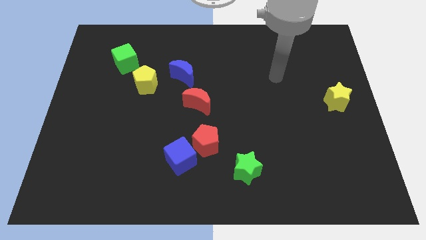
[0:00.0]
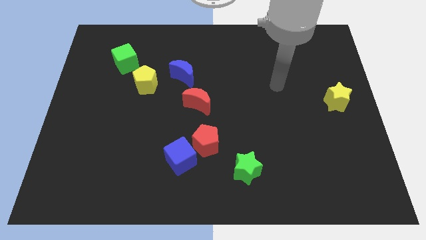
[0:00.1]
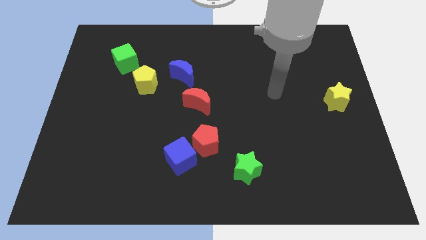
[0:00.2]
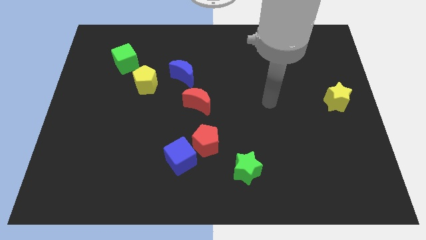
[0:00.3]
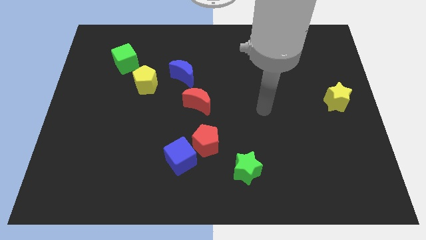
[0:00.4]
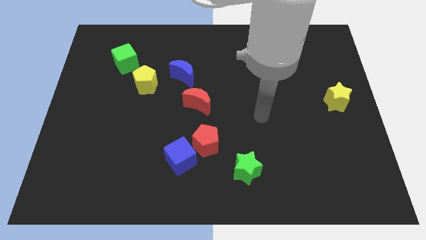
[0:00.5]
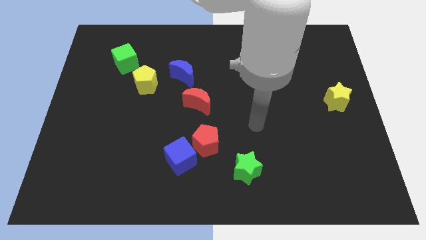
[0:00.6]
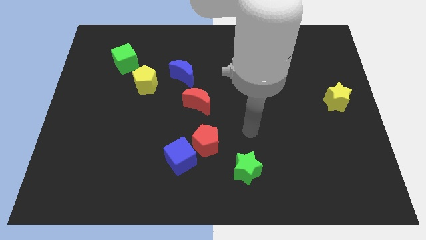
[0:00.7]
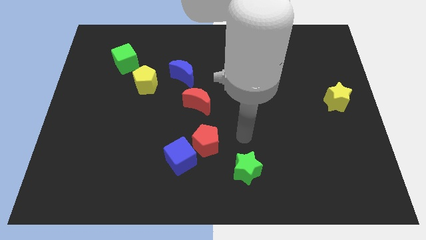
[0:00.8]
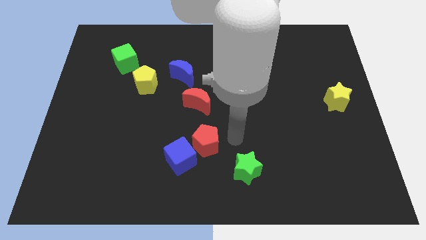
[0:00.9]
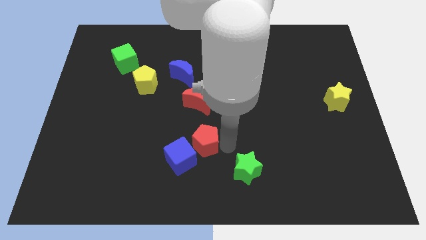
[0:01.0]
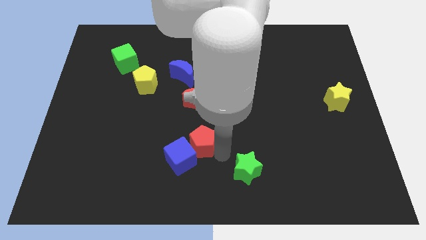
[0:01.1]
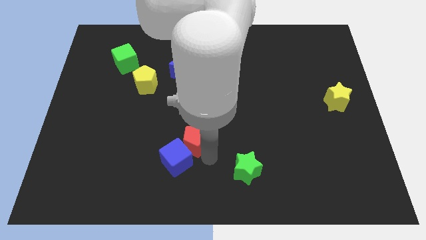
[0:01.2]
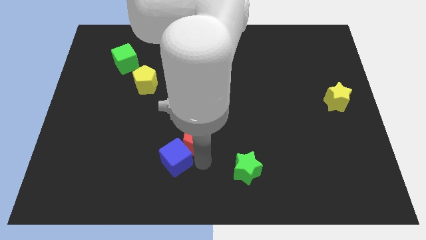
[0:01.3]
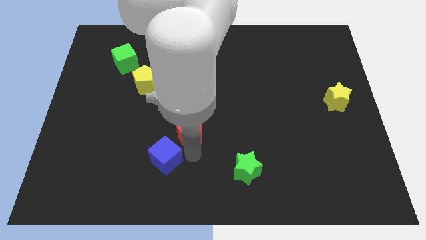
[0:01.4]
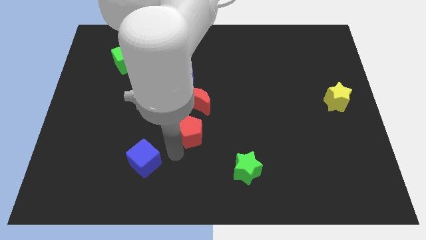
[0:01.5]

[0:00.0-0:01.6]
pull the red pentagon apart from the blue cube

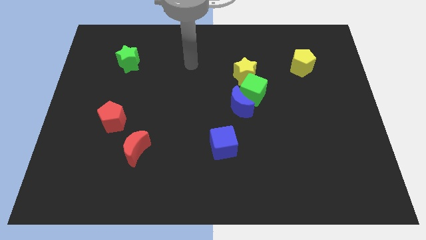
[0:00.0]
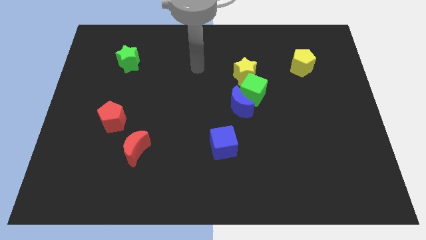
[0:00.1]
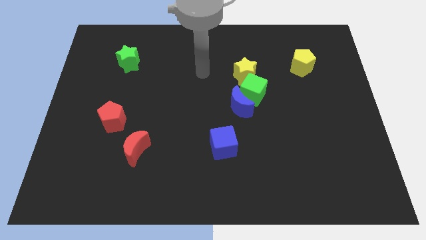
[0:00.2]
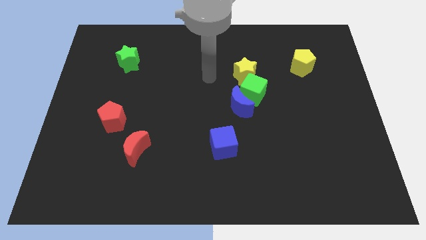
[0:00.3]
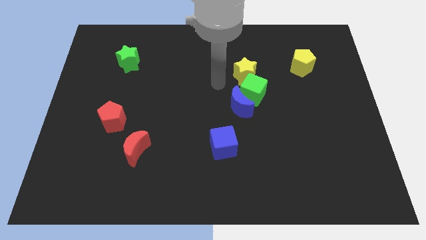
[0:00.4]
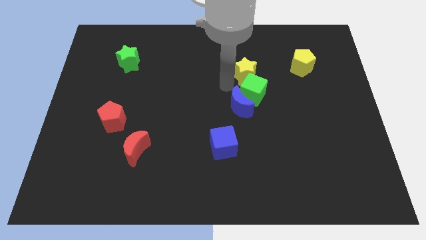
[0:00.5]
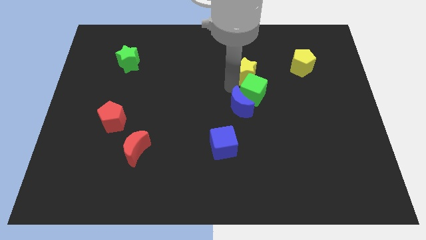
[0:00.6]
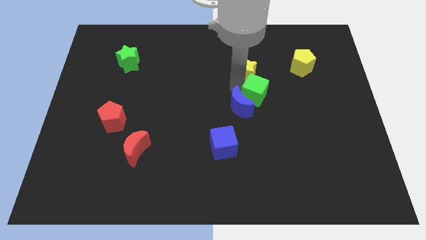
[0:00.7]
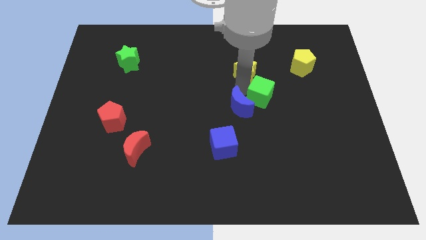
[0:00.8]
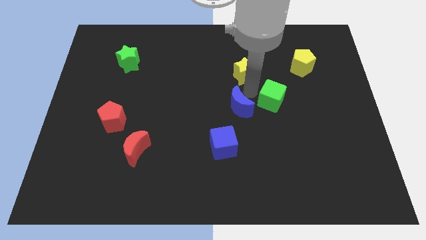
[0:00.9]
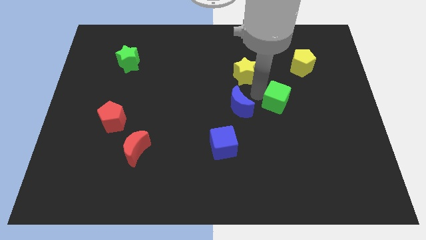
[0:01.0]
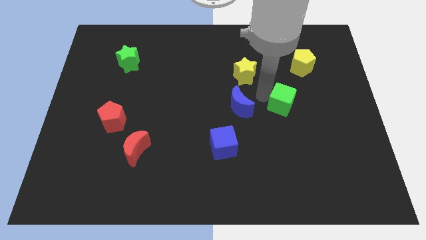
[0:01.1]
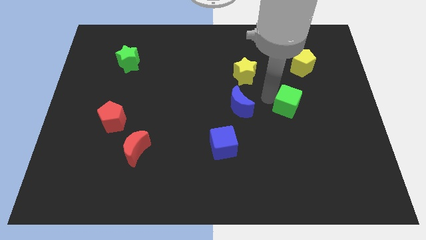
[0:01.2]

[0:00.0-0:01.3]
separate the green cube from the blue moon and yellow star

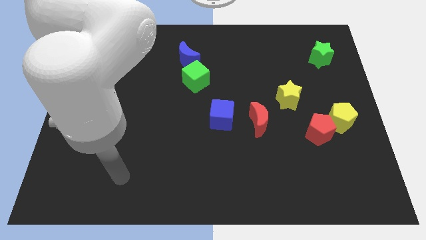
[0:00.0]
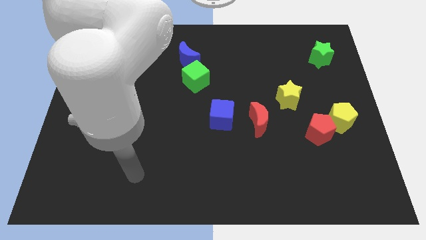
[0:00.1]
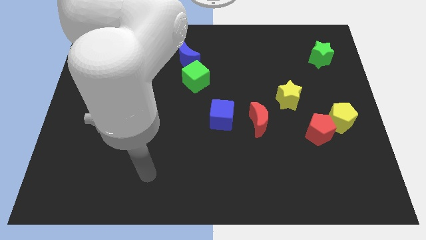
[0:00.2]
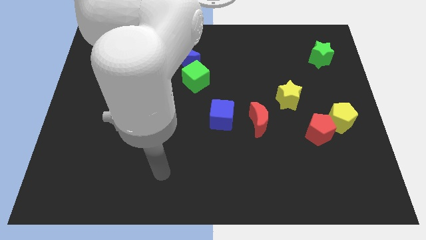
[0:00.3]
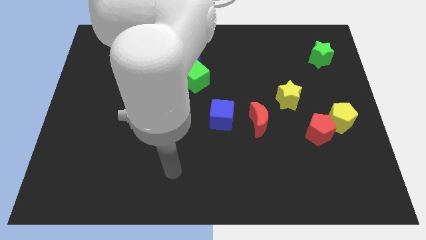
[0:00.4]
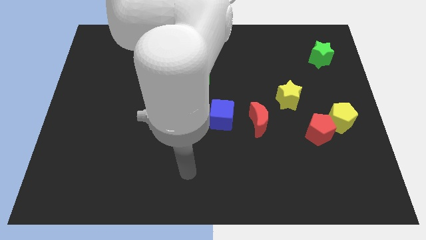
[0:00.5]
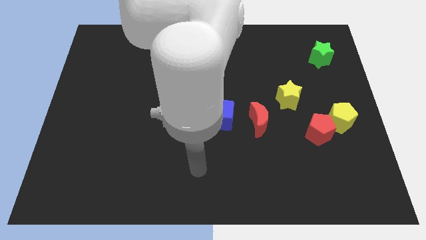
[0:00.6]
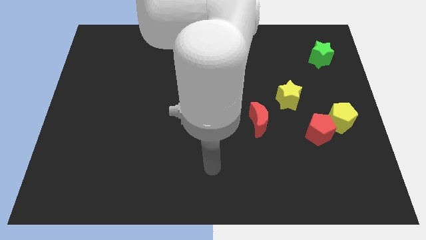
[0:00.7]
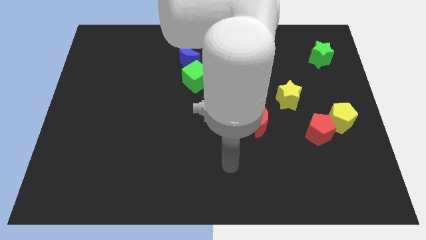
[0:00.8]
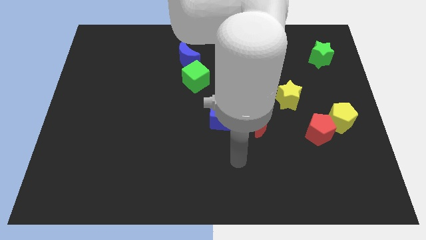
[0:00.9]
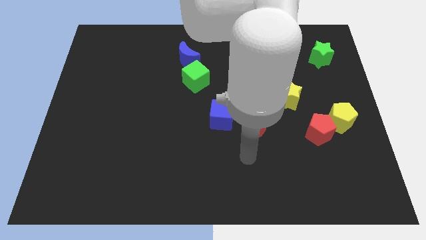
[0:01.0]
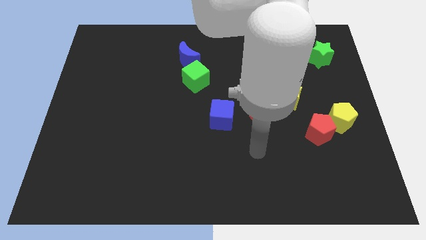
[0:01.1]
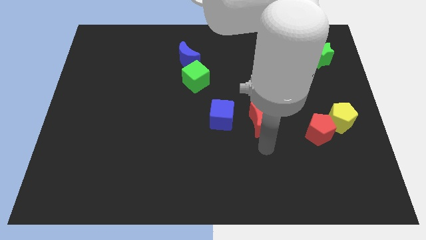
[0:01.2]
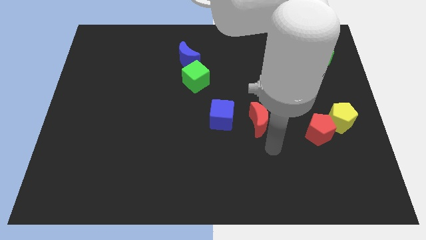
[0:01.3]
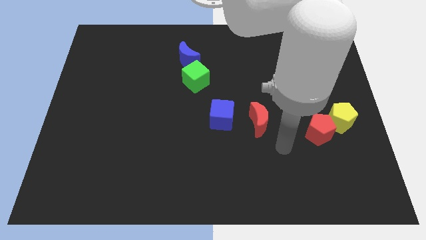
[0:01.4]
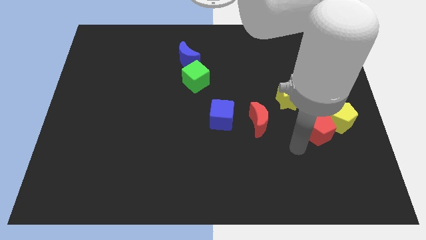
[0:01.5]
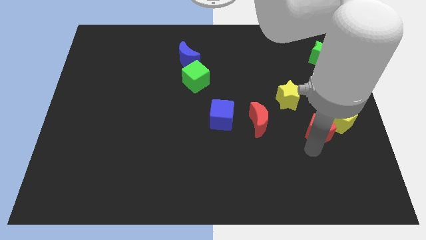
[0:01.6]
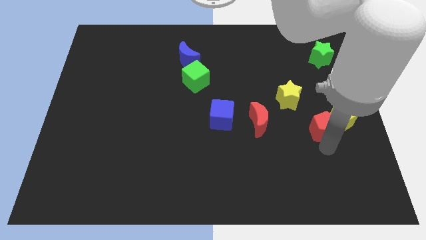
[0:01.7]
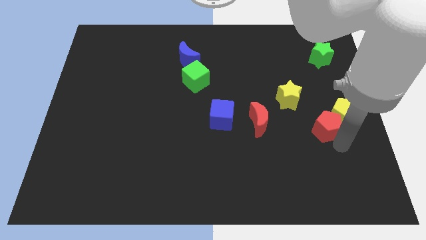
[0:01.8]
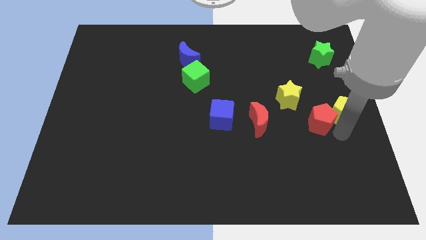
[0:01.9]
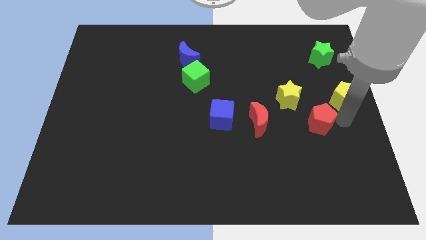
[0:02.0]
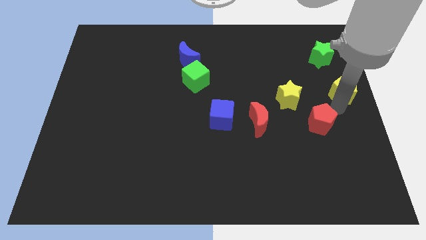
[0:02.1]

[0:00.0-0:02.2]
separate the red pentagon from the yellow pentagon

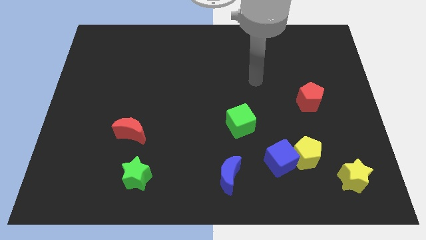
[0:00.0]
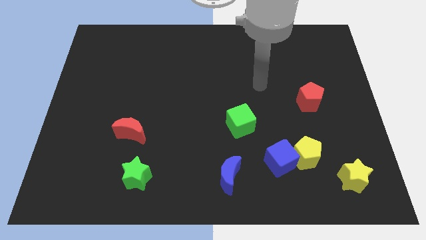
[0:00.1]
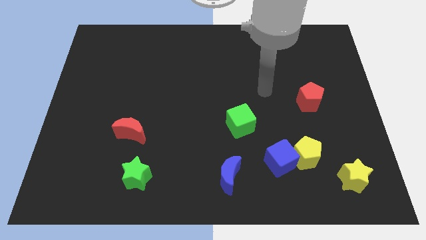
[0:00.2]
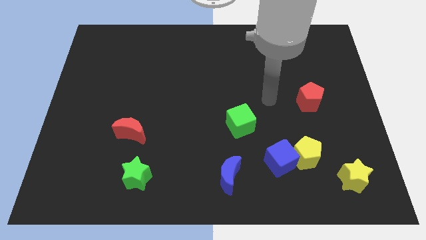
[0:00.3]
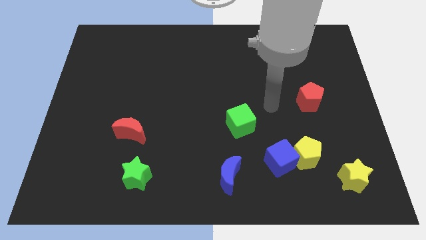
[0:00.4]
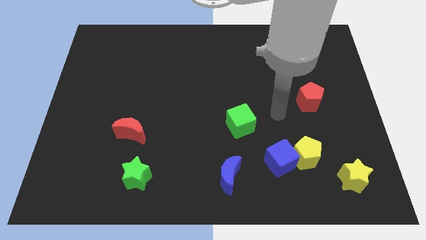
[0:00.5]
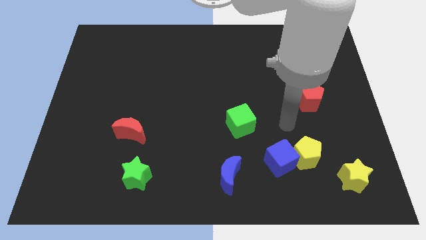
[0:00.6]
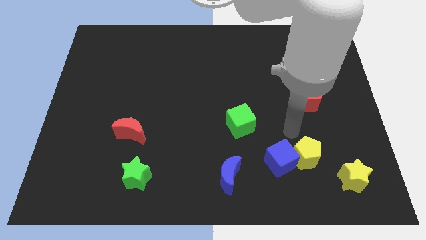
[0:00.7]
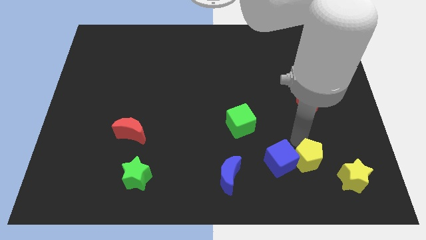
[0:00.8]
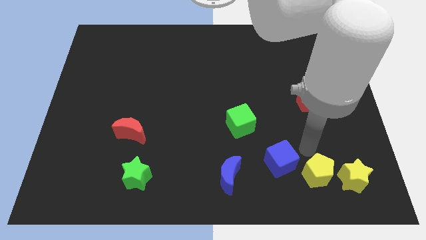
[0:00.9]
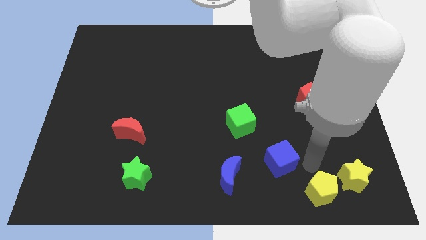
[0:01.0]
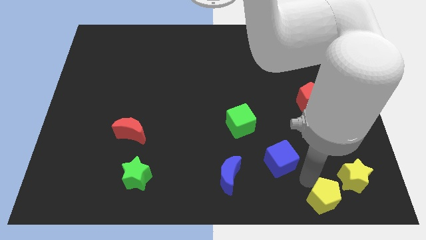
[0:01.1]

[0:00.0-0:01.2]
move the blue cube away from the yellow pentagon

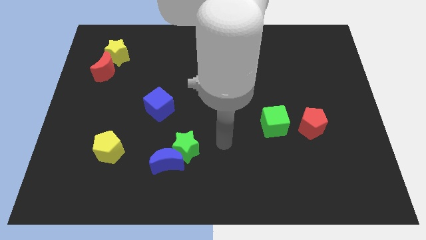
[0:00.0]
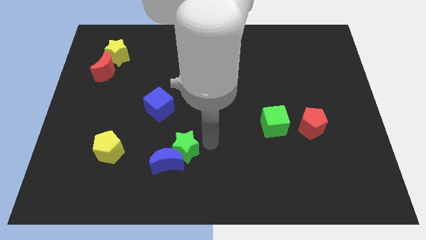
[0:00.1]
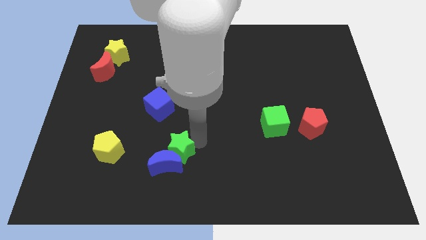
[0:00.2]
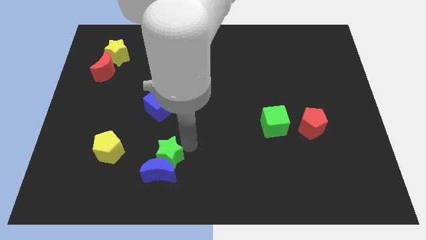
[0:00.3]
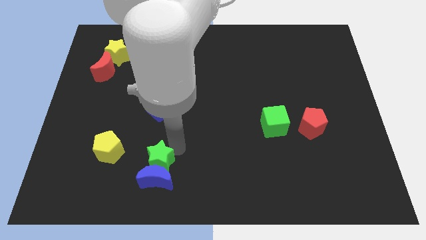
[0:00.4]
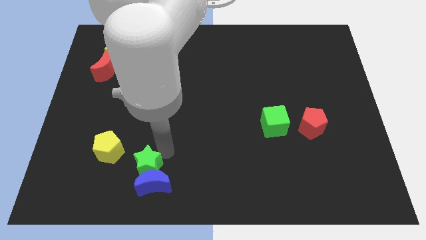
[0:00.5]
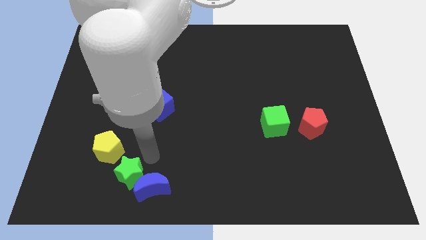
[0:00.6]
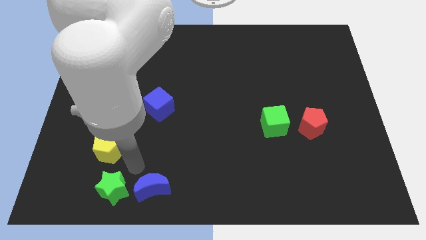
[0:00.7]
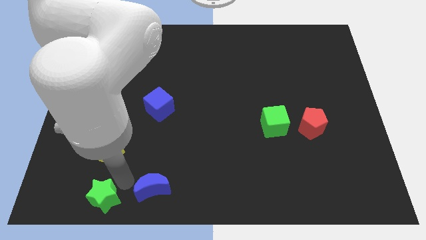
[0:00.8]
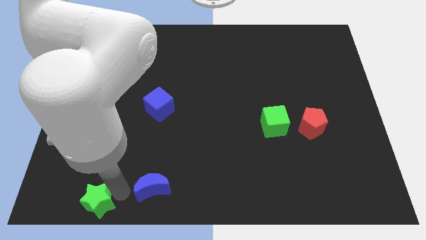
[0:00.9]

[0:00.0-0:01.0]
move the blue moon away from the green star

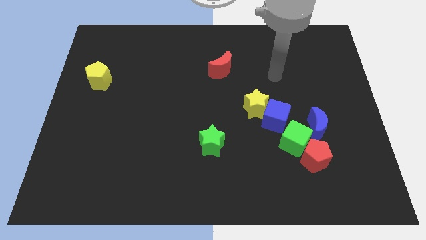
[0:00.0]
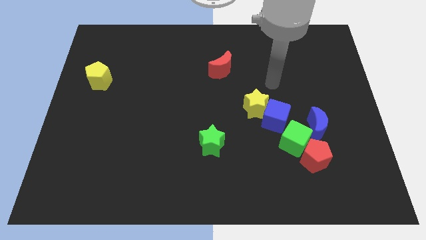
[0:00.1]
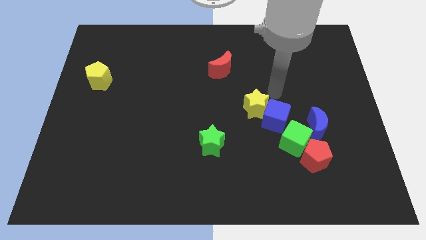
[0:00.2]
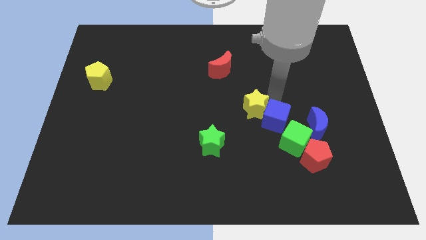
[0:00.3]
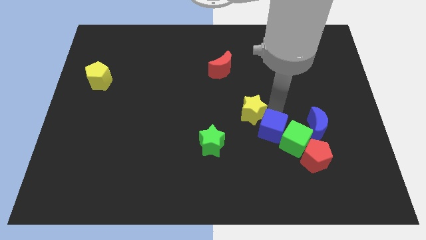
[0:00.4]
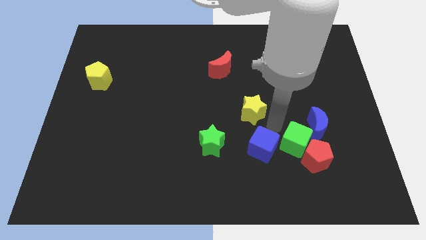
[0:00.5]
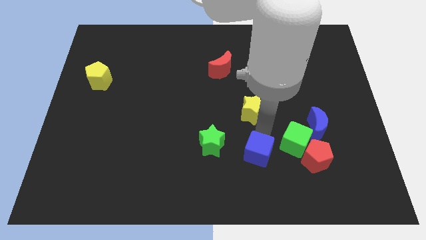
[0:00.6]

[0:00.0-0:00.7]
pull the yellow star apart from the blue cube

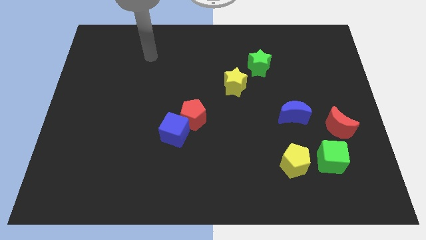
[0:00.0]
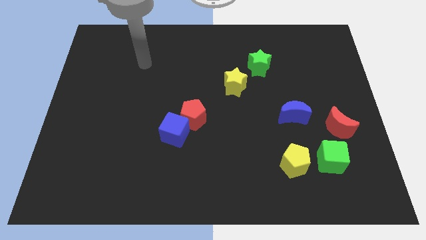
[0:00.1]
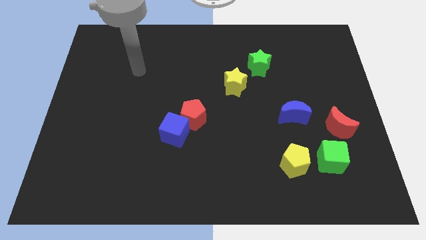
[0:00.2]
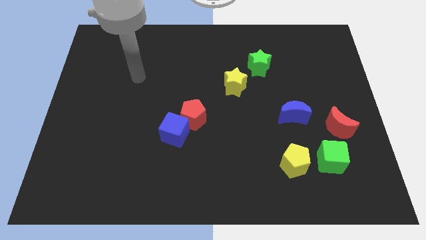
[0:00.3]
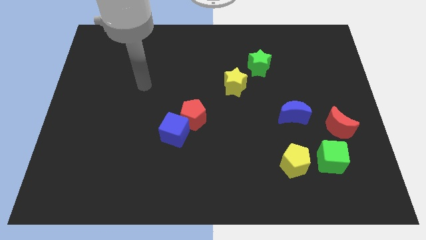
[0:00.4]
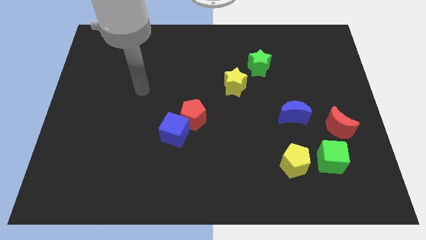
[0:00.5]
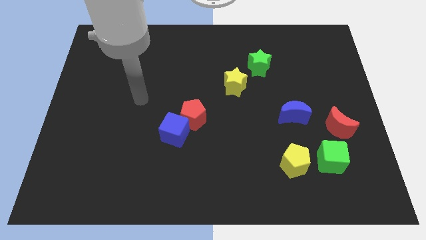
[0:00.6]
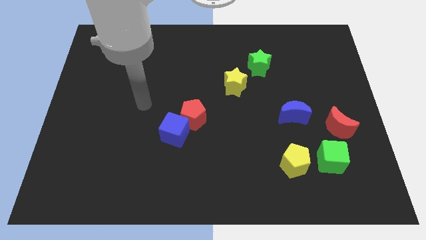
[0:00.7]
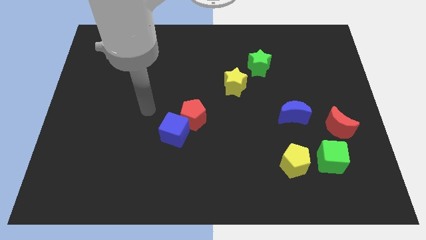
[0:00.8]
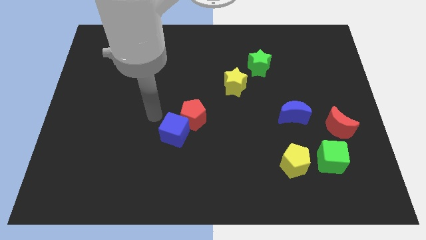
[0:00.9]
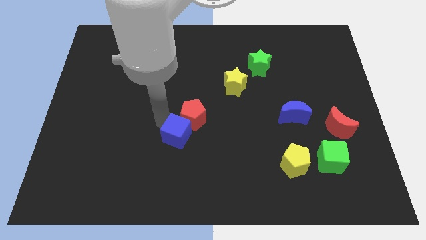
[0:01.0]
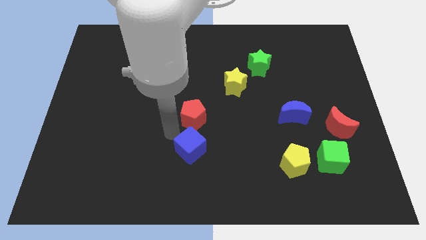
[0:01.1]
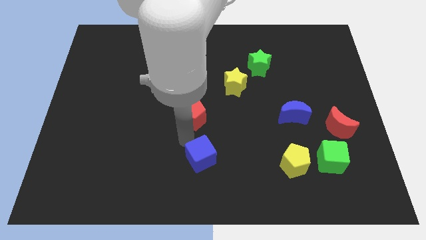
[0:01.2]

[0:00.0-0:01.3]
separate the red pentagon from the blue cube
